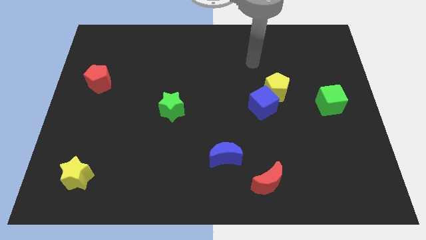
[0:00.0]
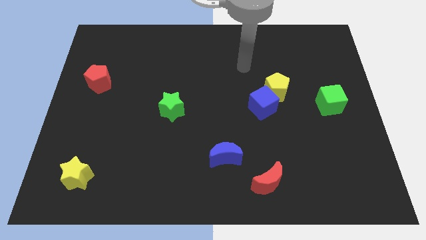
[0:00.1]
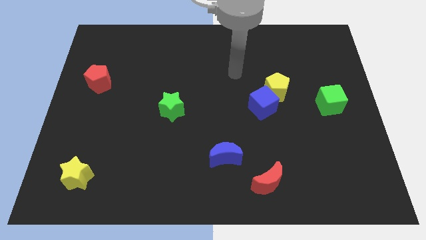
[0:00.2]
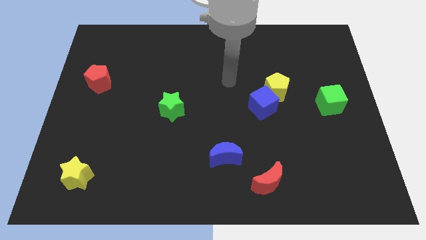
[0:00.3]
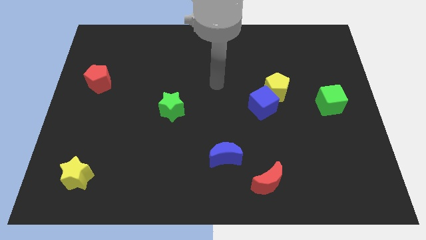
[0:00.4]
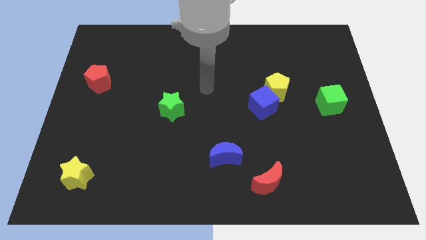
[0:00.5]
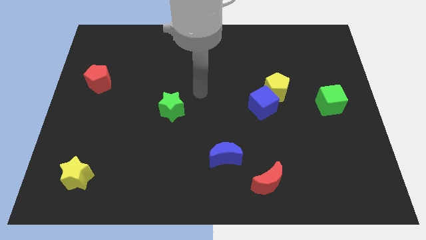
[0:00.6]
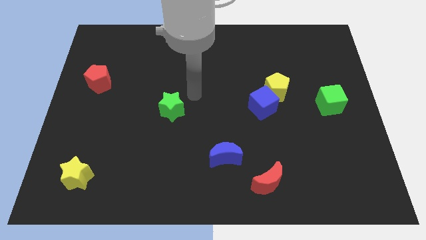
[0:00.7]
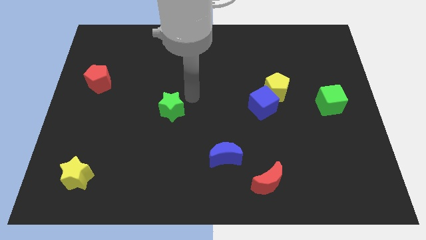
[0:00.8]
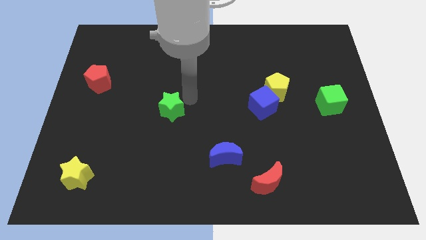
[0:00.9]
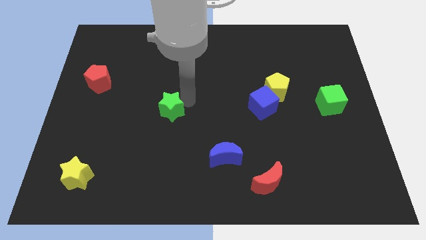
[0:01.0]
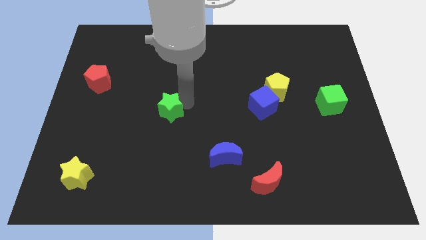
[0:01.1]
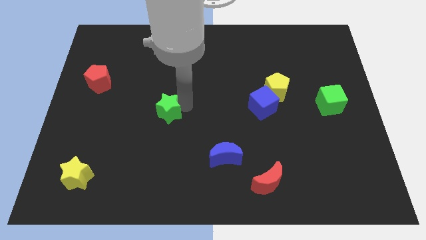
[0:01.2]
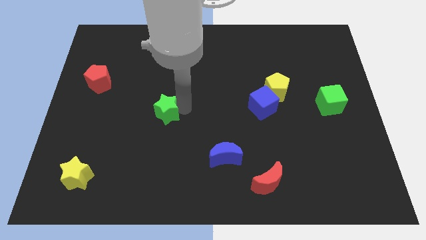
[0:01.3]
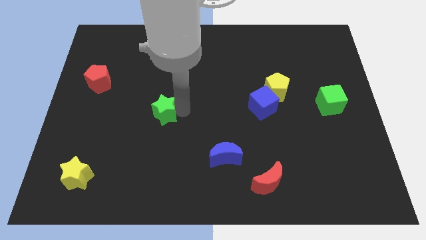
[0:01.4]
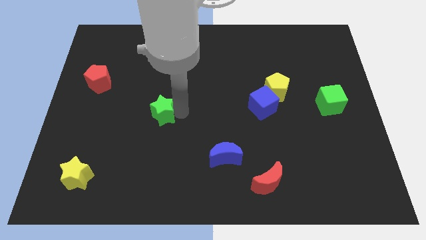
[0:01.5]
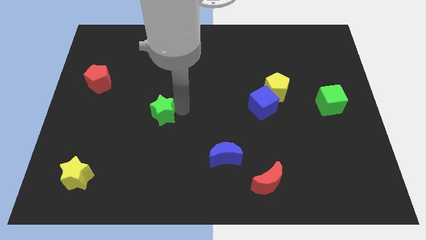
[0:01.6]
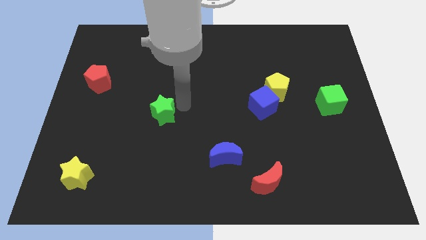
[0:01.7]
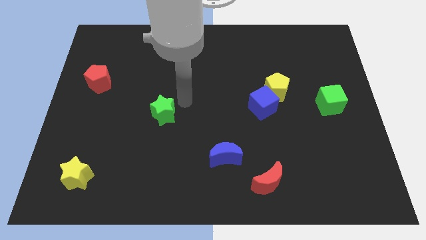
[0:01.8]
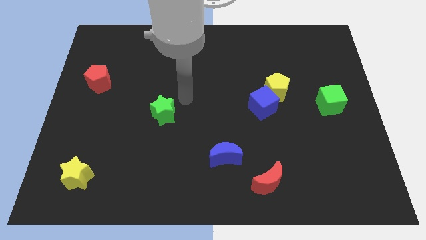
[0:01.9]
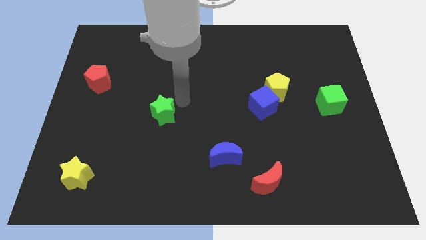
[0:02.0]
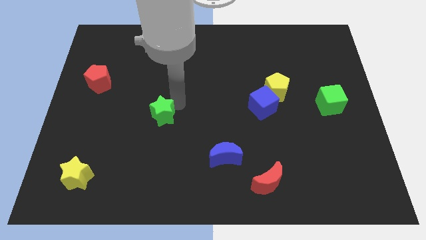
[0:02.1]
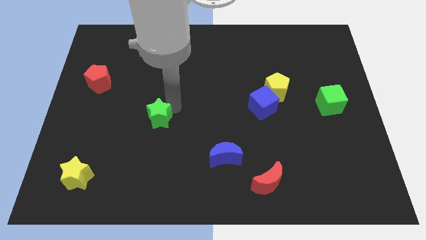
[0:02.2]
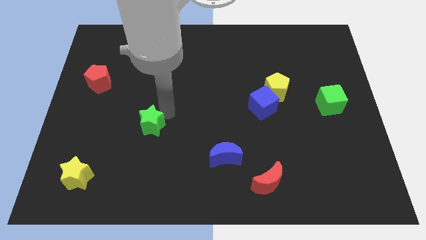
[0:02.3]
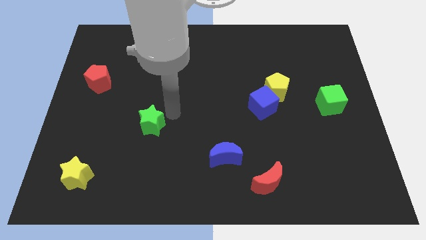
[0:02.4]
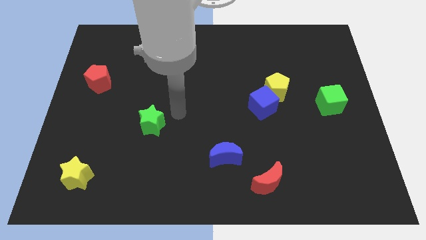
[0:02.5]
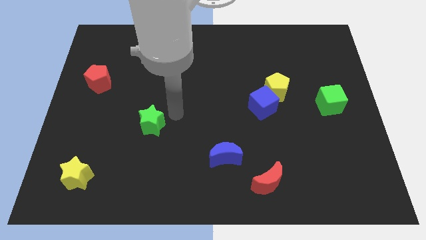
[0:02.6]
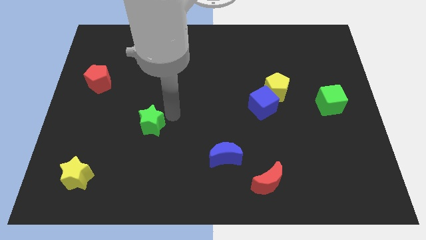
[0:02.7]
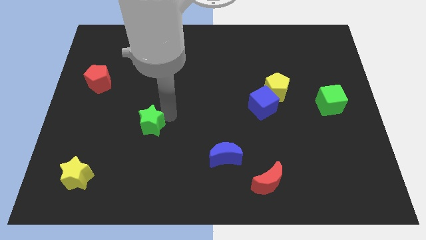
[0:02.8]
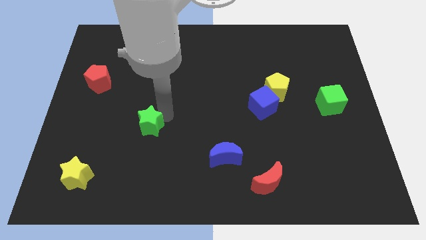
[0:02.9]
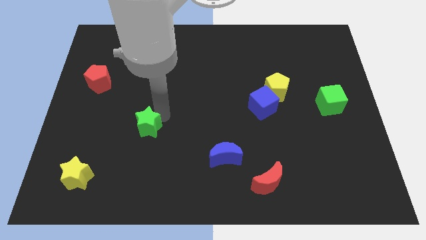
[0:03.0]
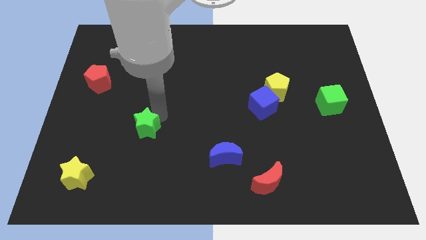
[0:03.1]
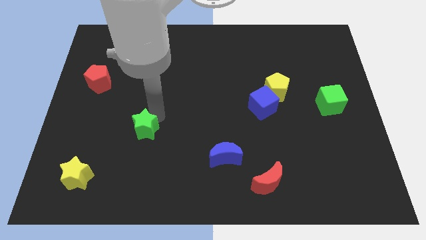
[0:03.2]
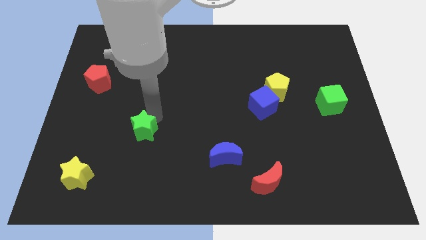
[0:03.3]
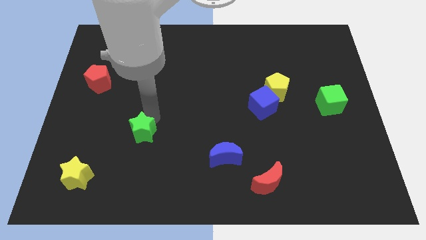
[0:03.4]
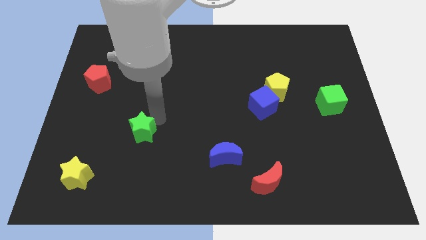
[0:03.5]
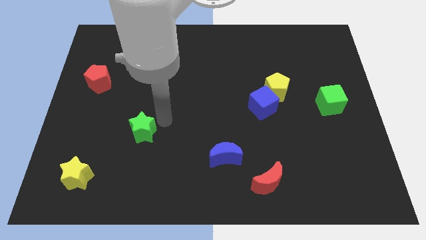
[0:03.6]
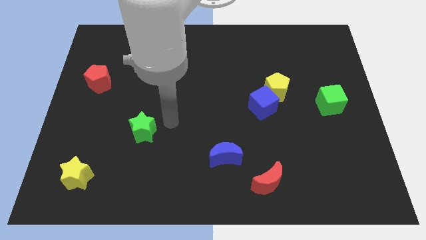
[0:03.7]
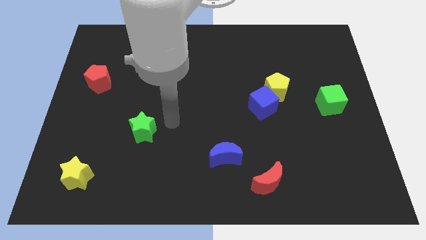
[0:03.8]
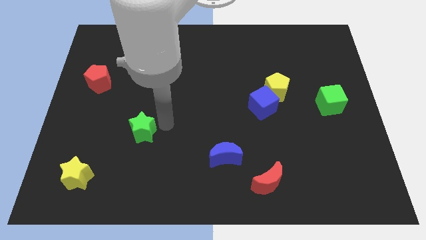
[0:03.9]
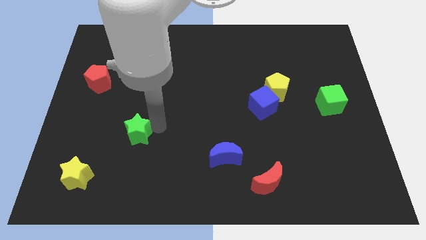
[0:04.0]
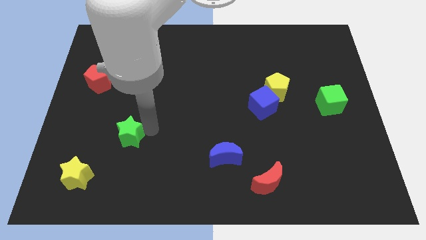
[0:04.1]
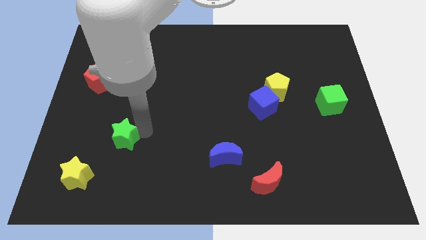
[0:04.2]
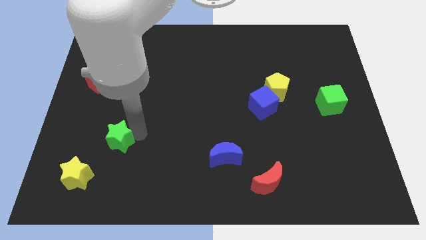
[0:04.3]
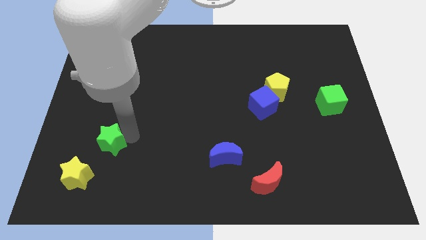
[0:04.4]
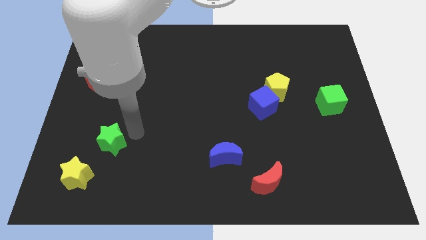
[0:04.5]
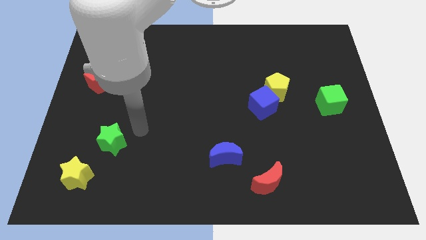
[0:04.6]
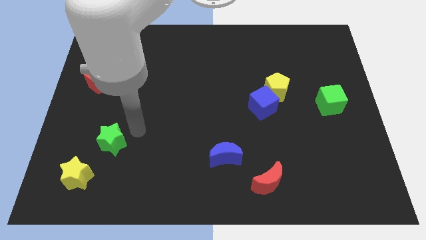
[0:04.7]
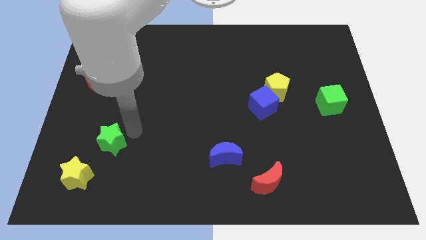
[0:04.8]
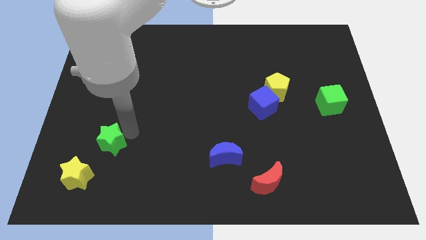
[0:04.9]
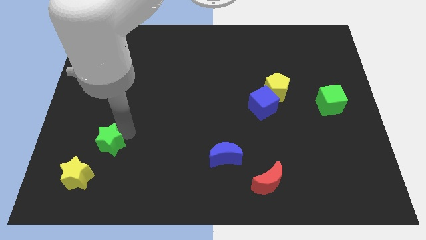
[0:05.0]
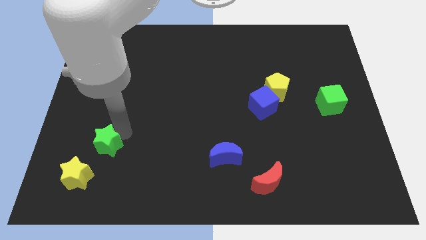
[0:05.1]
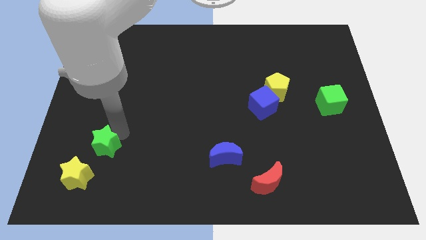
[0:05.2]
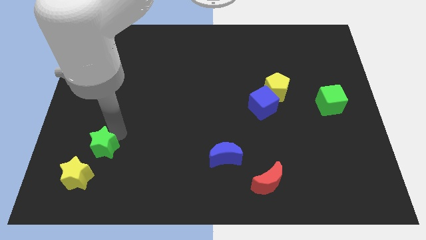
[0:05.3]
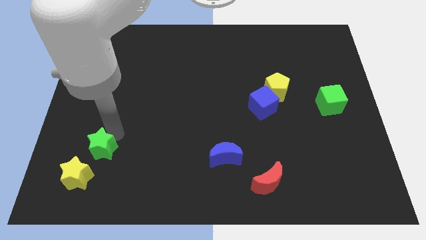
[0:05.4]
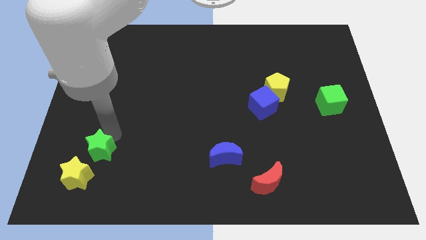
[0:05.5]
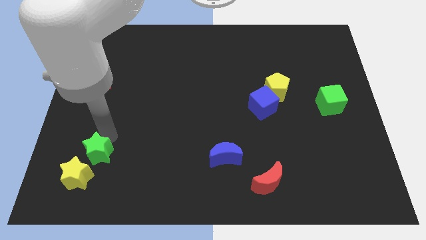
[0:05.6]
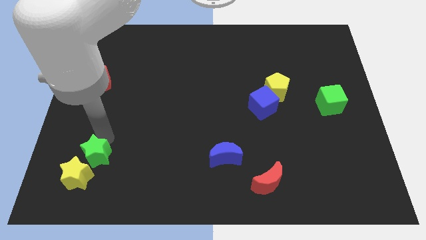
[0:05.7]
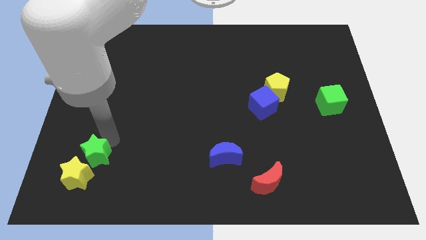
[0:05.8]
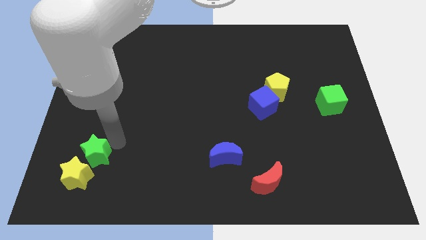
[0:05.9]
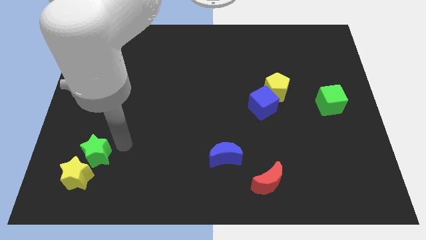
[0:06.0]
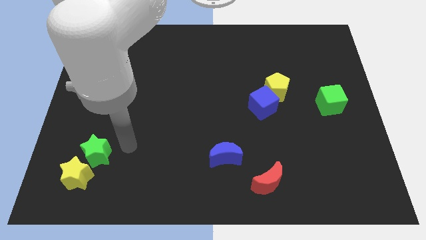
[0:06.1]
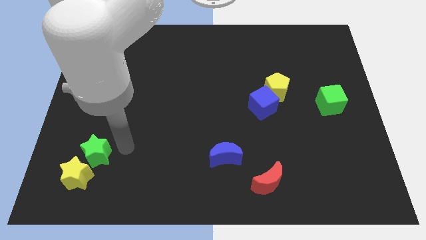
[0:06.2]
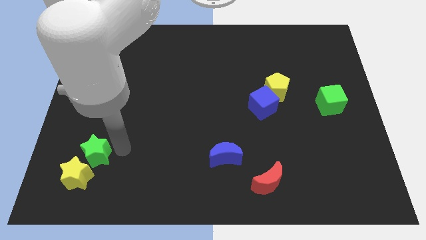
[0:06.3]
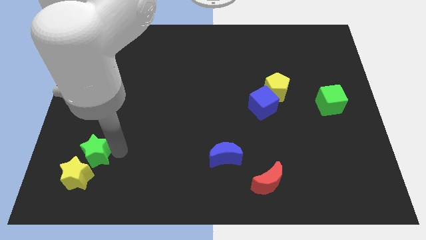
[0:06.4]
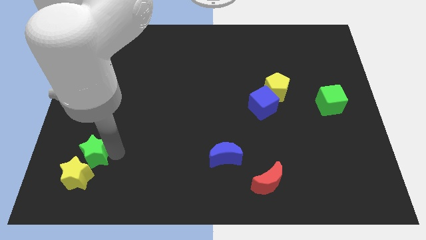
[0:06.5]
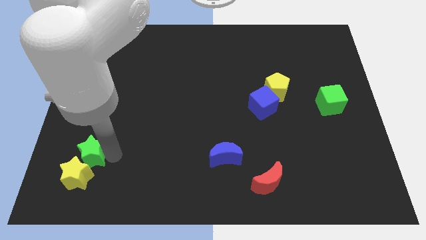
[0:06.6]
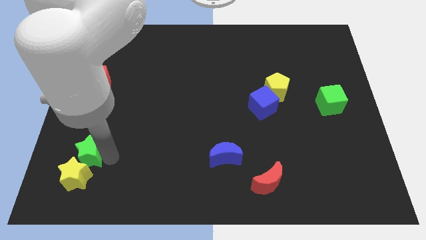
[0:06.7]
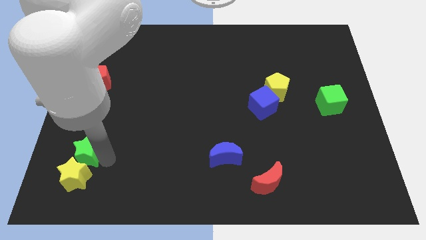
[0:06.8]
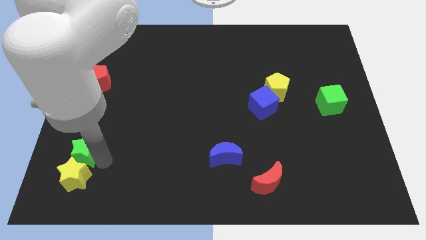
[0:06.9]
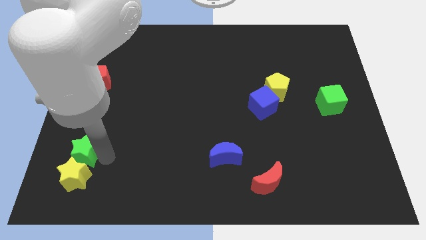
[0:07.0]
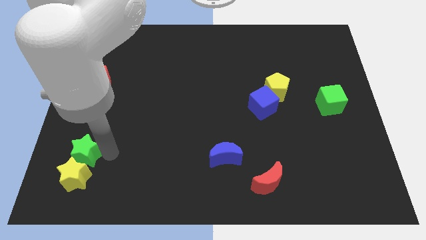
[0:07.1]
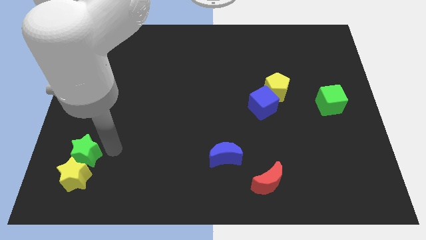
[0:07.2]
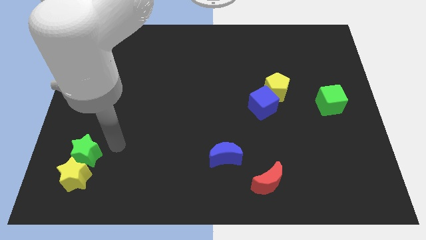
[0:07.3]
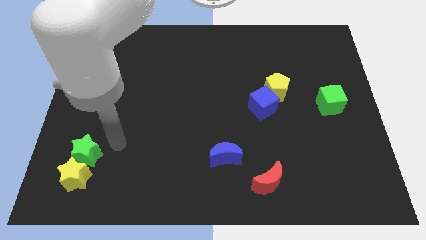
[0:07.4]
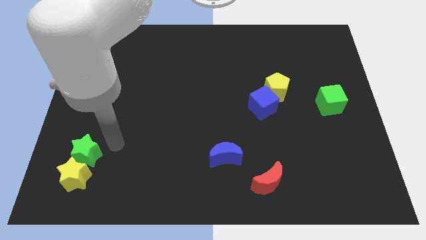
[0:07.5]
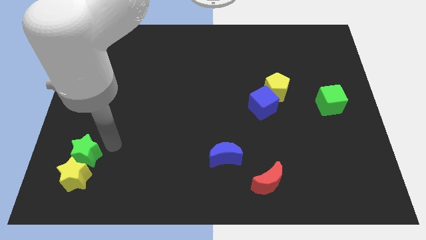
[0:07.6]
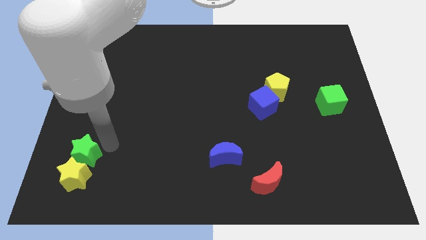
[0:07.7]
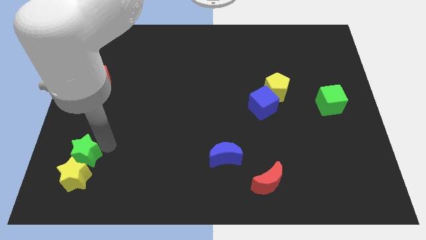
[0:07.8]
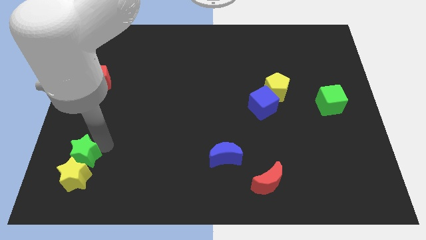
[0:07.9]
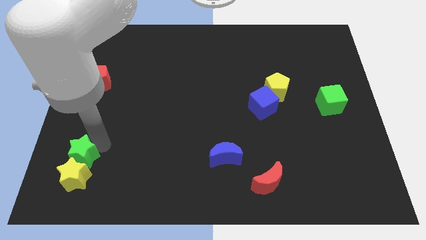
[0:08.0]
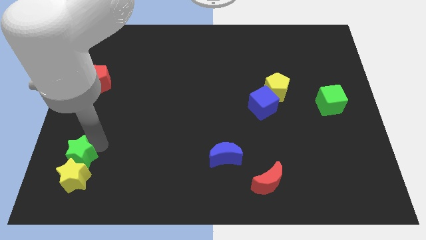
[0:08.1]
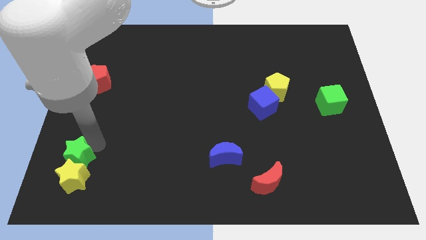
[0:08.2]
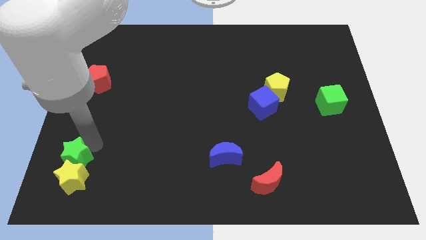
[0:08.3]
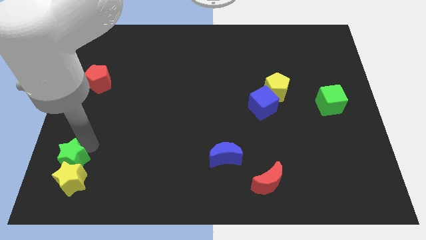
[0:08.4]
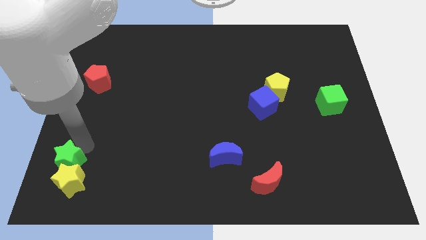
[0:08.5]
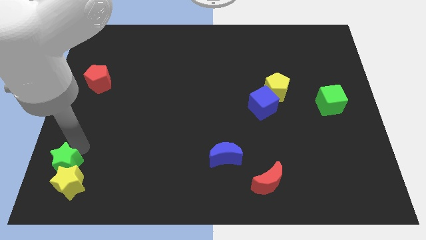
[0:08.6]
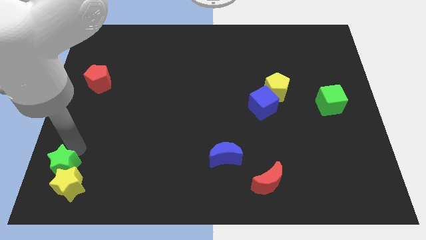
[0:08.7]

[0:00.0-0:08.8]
put the green star to the bottom left of the board
